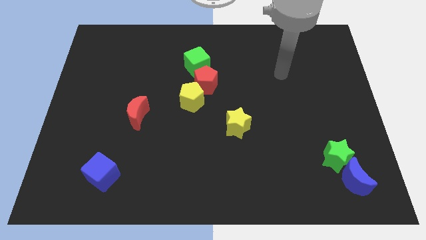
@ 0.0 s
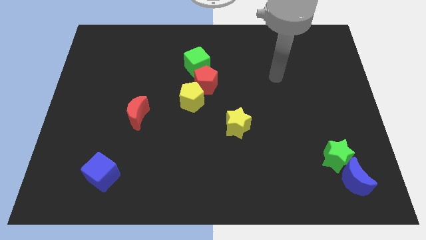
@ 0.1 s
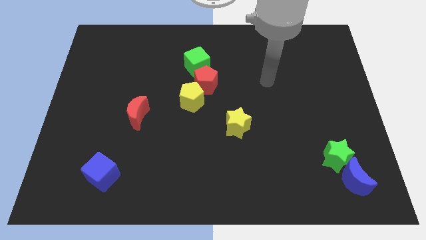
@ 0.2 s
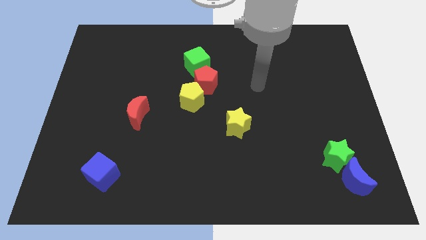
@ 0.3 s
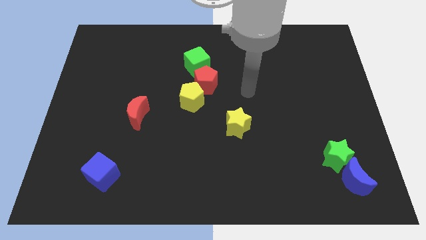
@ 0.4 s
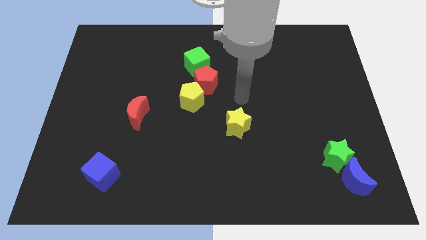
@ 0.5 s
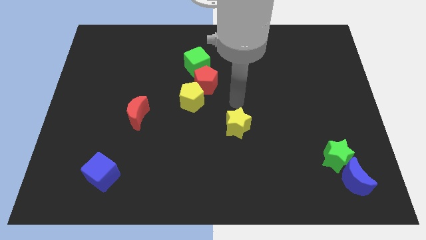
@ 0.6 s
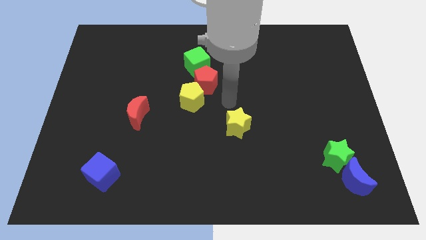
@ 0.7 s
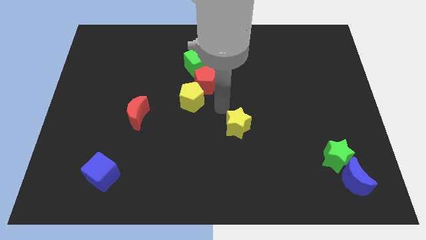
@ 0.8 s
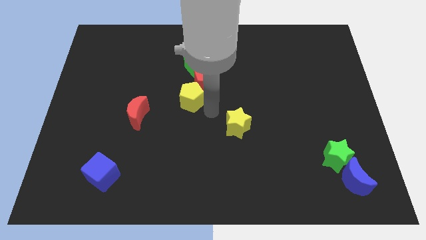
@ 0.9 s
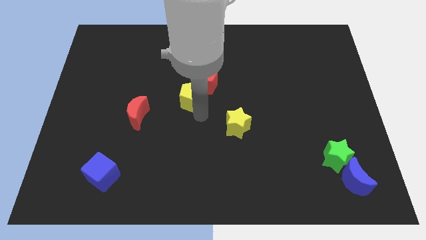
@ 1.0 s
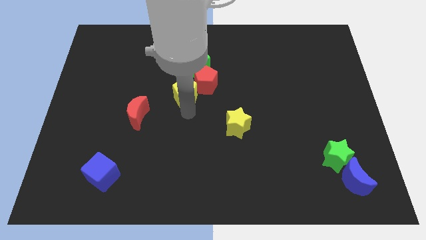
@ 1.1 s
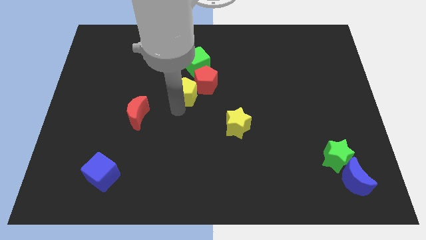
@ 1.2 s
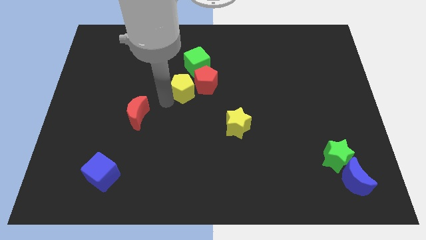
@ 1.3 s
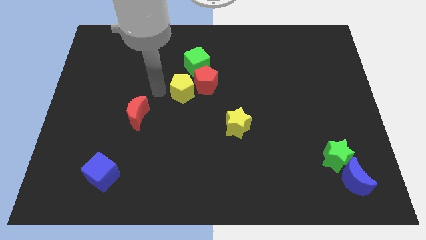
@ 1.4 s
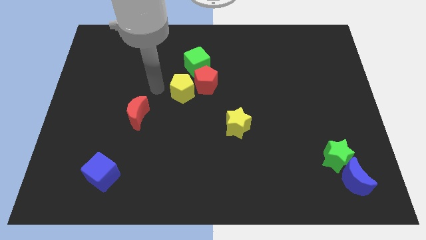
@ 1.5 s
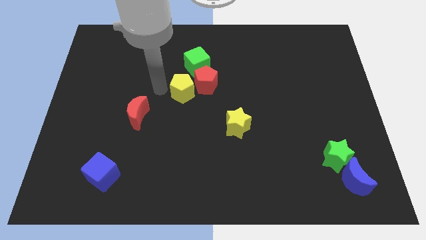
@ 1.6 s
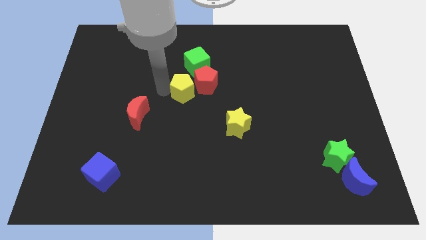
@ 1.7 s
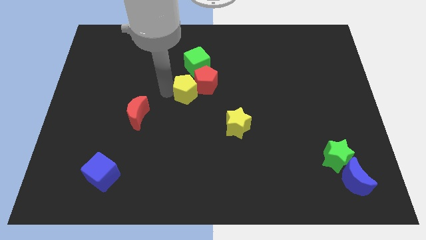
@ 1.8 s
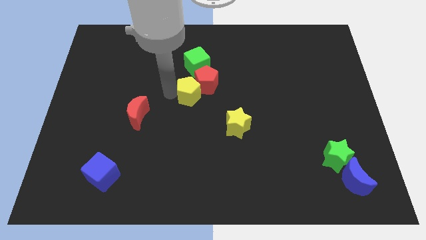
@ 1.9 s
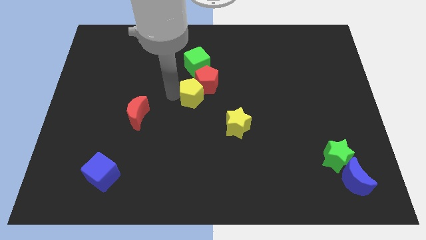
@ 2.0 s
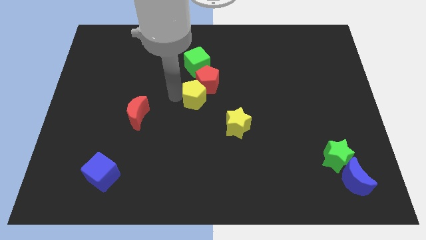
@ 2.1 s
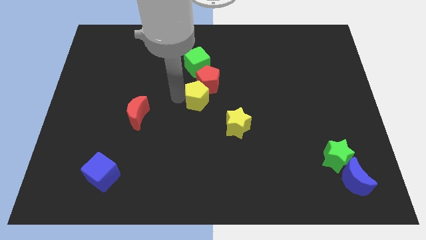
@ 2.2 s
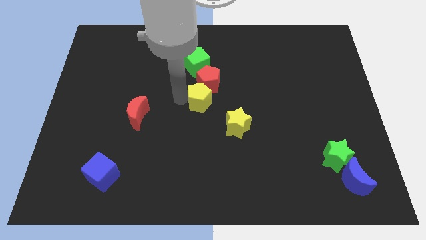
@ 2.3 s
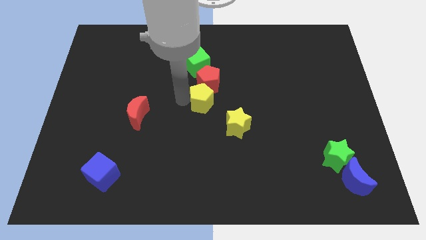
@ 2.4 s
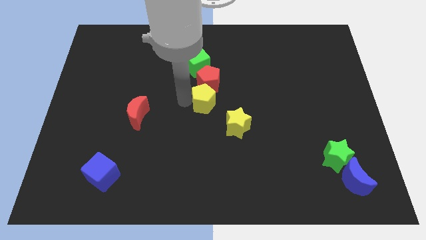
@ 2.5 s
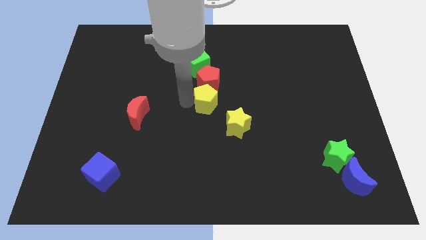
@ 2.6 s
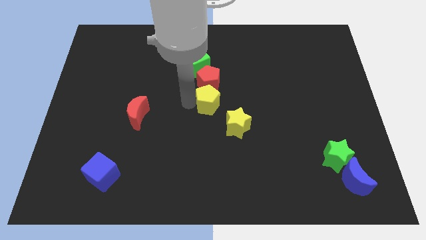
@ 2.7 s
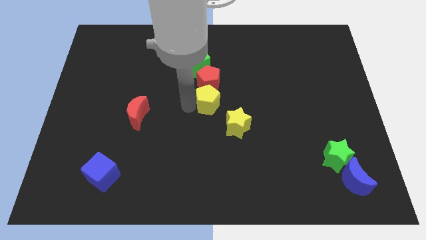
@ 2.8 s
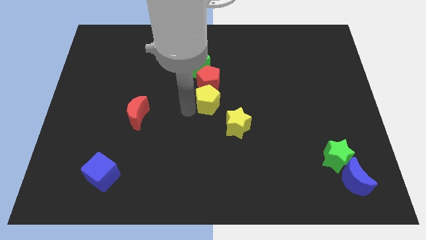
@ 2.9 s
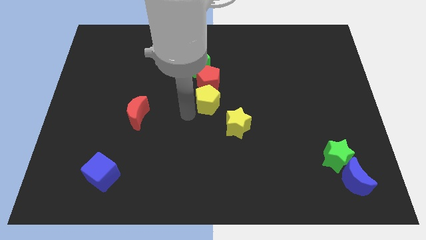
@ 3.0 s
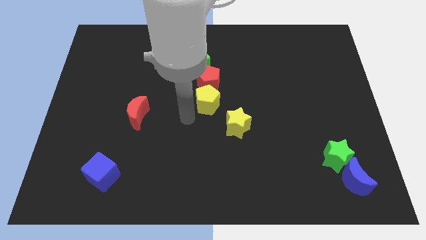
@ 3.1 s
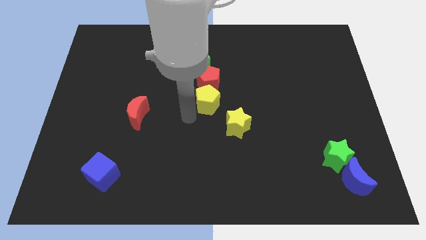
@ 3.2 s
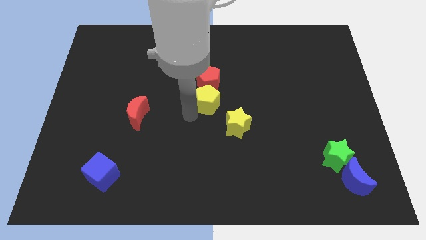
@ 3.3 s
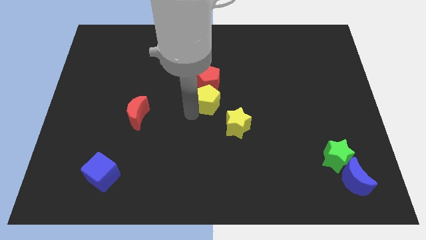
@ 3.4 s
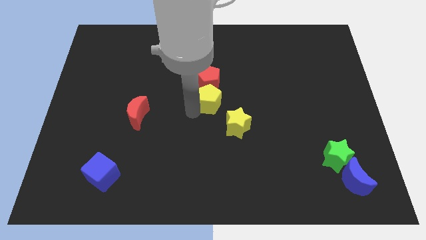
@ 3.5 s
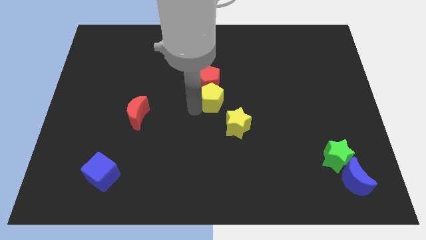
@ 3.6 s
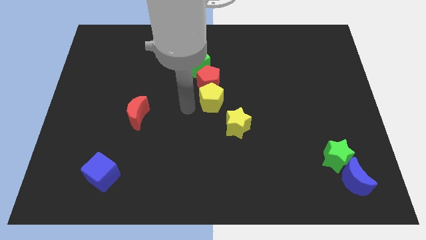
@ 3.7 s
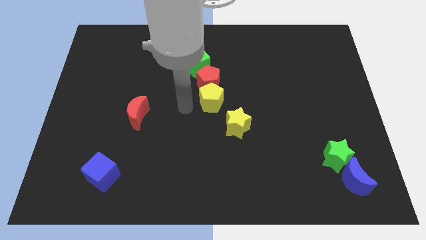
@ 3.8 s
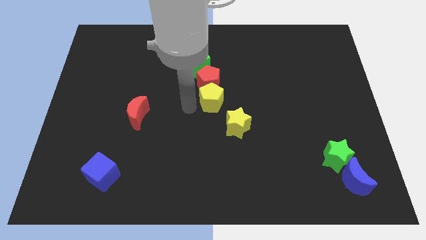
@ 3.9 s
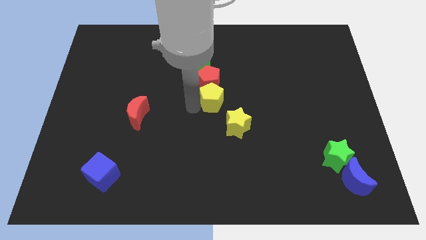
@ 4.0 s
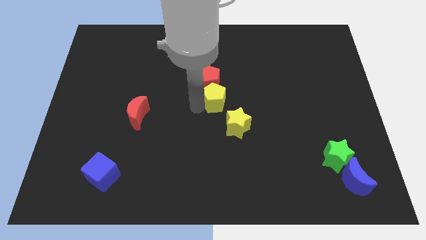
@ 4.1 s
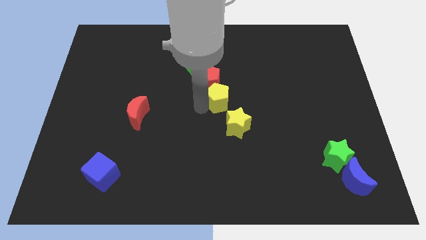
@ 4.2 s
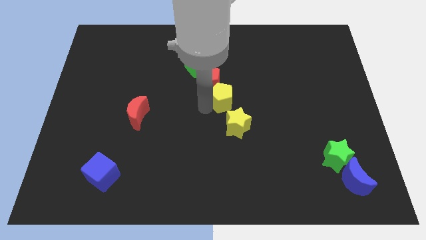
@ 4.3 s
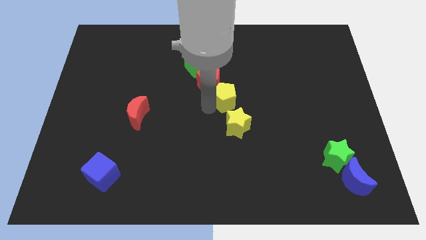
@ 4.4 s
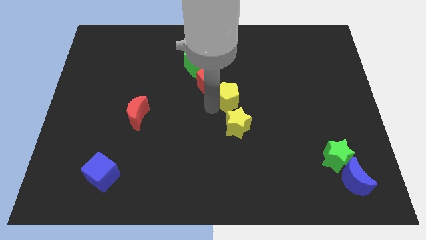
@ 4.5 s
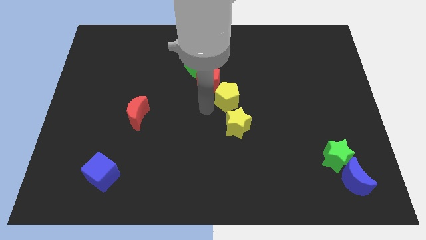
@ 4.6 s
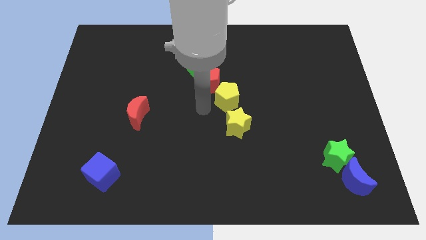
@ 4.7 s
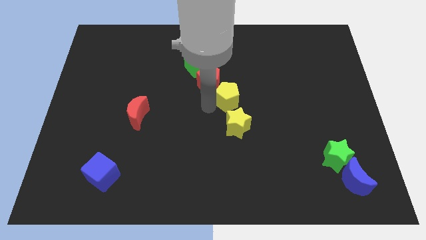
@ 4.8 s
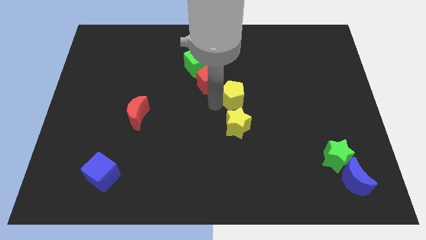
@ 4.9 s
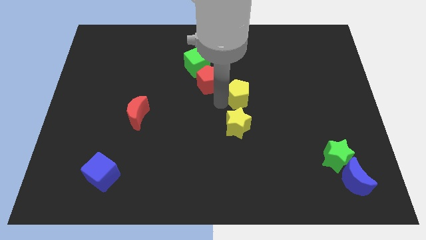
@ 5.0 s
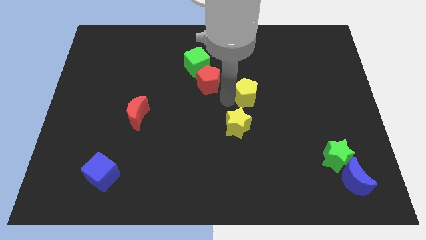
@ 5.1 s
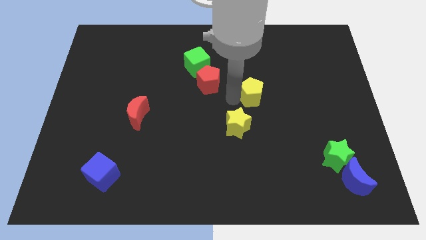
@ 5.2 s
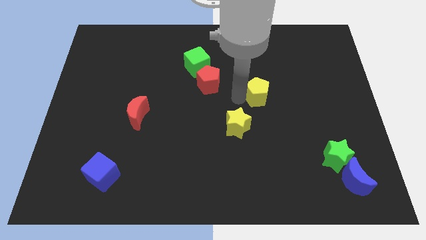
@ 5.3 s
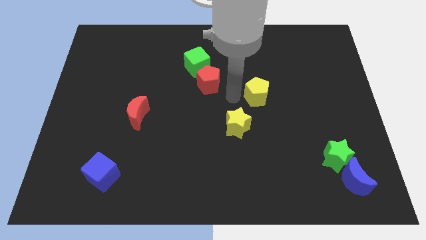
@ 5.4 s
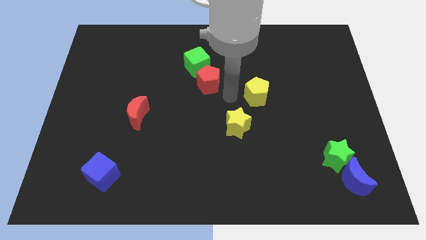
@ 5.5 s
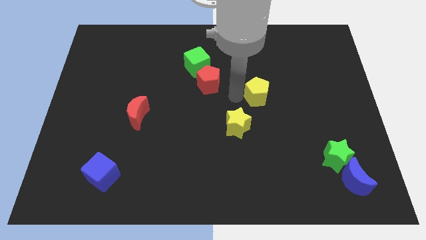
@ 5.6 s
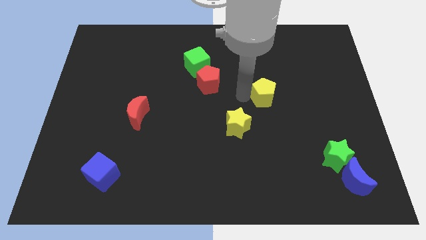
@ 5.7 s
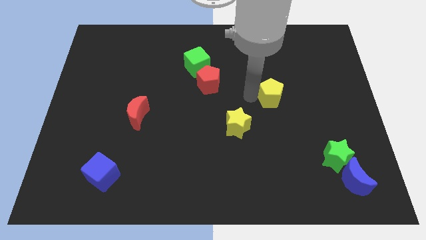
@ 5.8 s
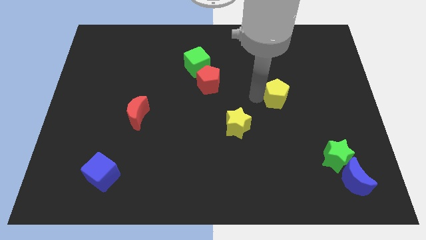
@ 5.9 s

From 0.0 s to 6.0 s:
push the yellow pentagon right

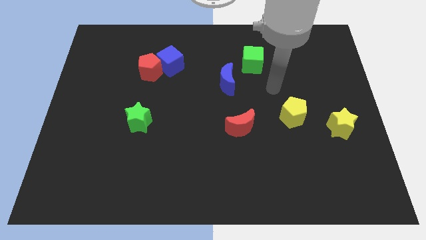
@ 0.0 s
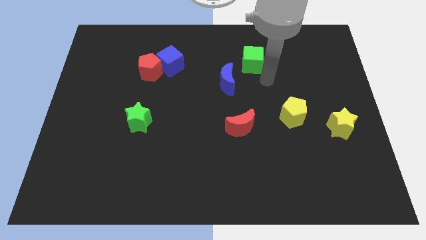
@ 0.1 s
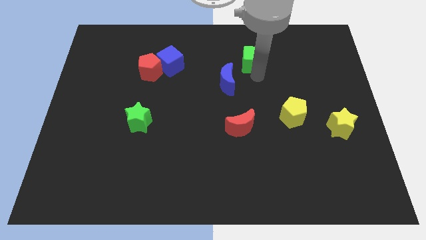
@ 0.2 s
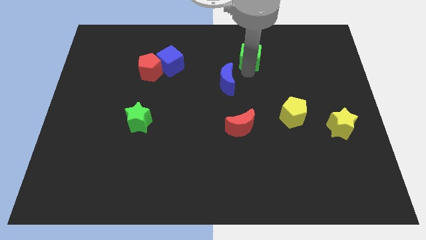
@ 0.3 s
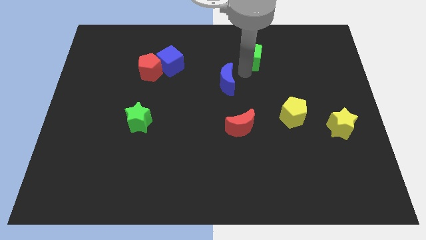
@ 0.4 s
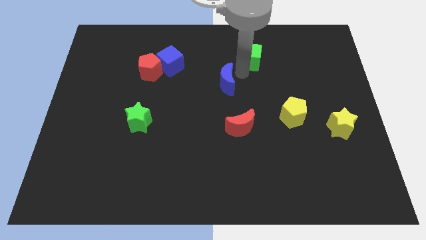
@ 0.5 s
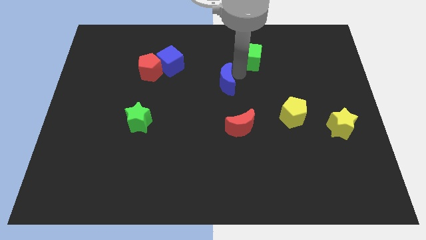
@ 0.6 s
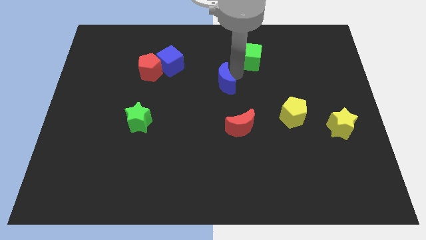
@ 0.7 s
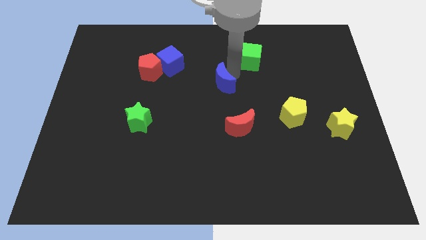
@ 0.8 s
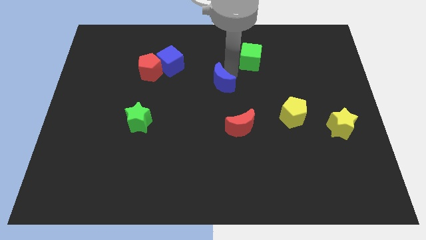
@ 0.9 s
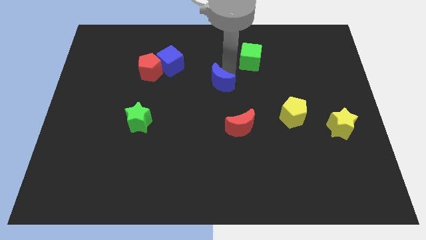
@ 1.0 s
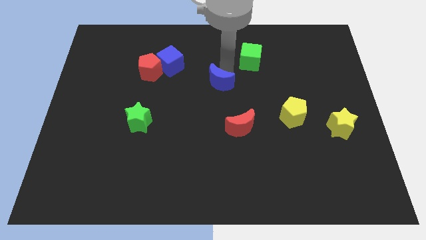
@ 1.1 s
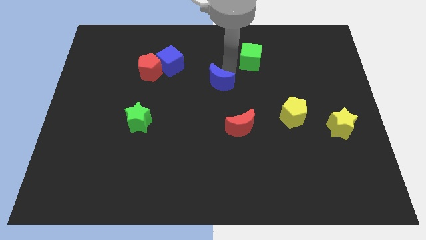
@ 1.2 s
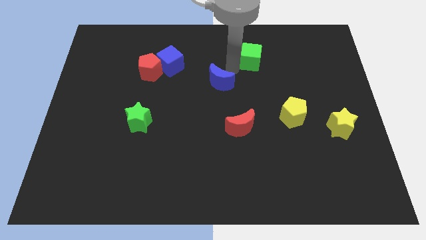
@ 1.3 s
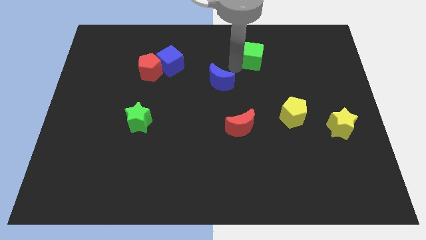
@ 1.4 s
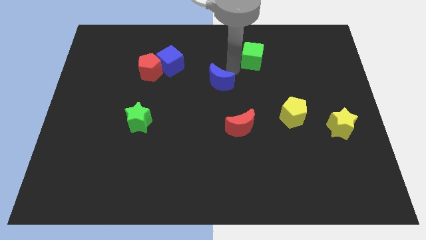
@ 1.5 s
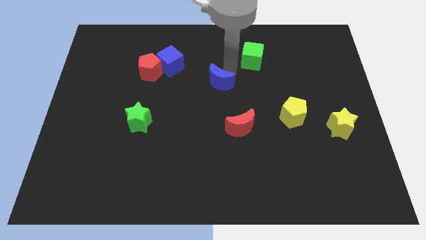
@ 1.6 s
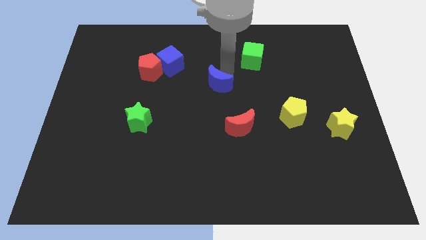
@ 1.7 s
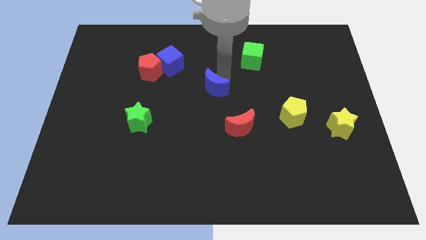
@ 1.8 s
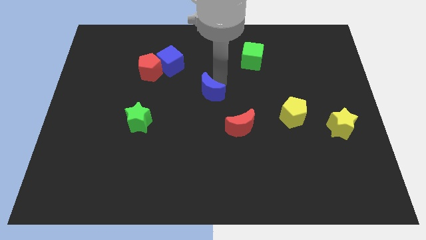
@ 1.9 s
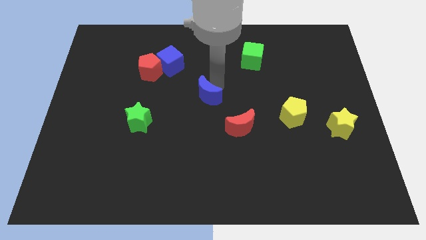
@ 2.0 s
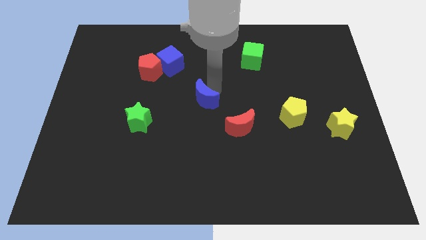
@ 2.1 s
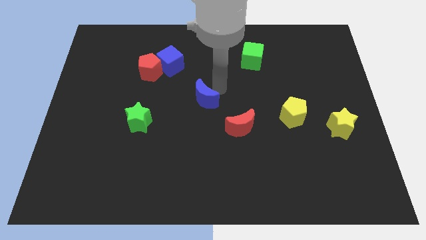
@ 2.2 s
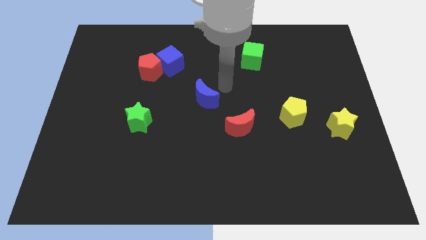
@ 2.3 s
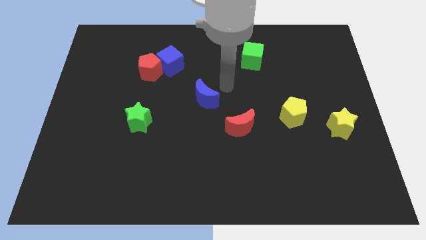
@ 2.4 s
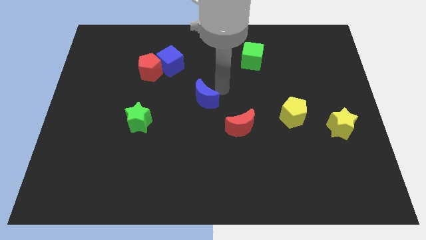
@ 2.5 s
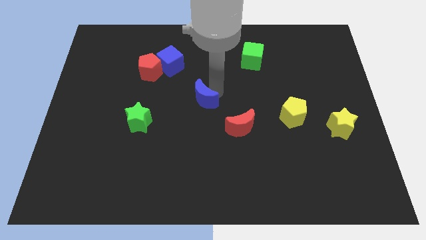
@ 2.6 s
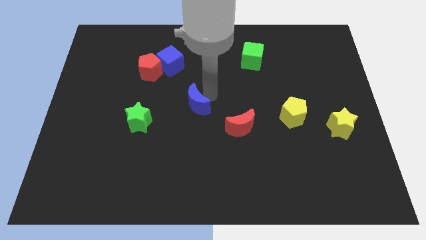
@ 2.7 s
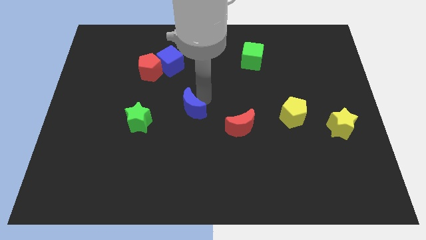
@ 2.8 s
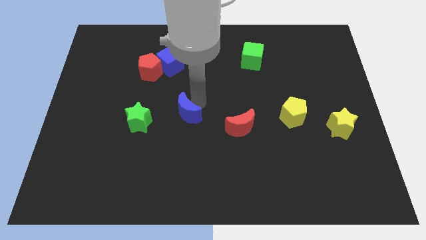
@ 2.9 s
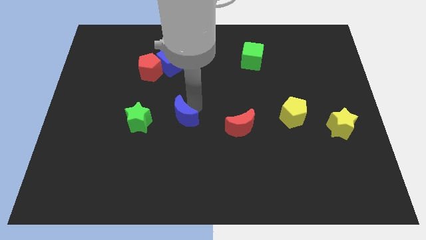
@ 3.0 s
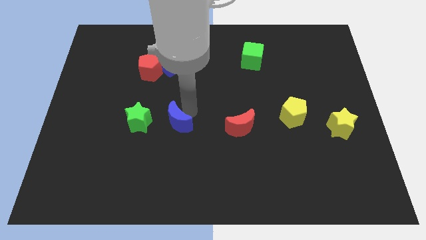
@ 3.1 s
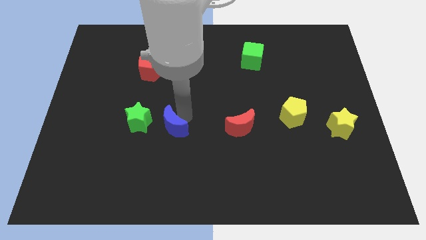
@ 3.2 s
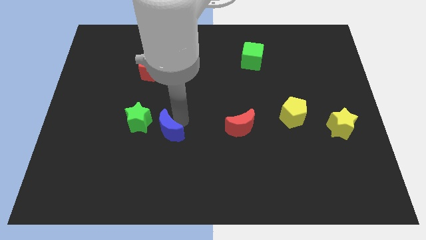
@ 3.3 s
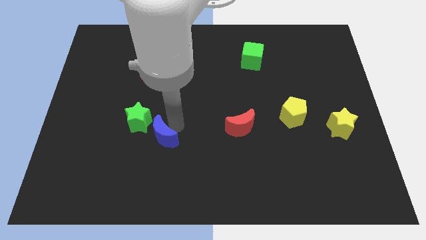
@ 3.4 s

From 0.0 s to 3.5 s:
slide the blue moon down and then to the left
